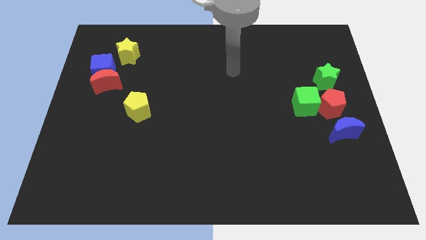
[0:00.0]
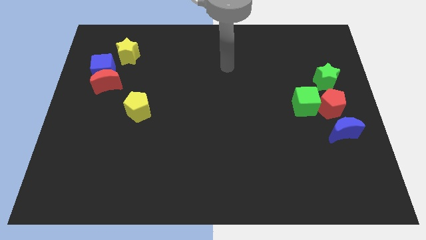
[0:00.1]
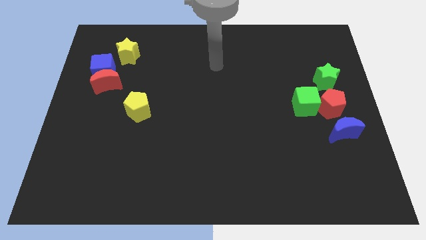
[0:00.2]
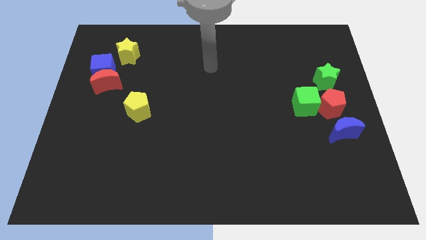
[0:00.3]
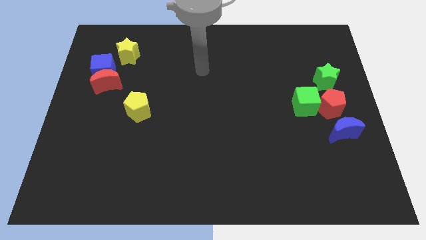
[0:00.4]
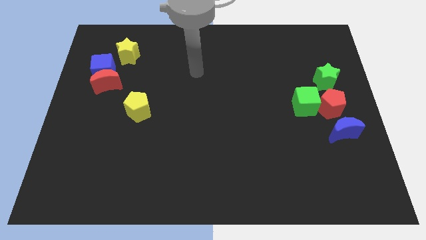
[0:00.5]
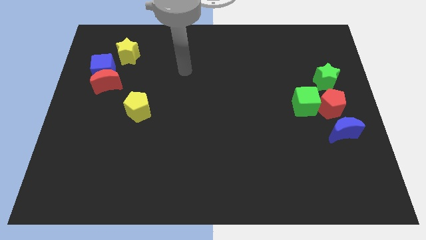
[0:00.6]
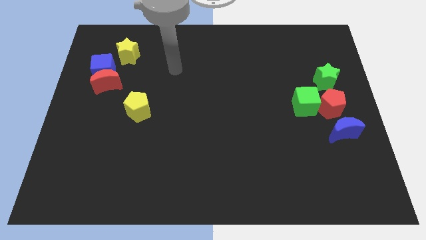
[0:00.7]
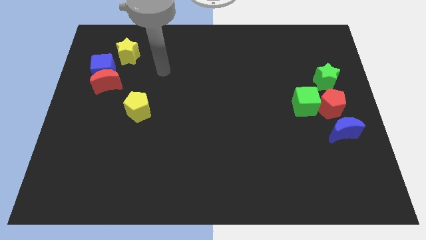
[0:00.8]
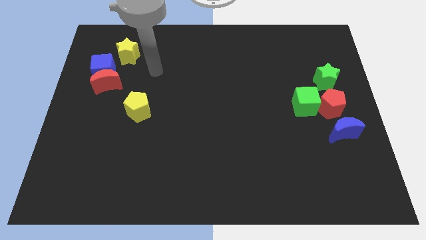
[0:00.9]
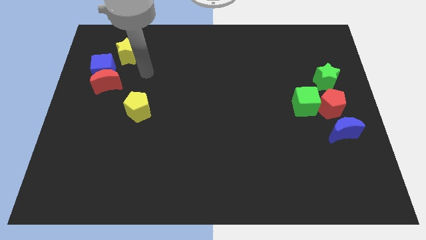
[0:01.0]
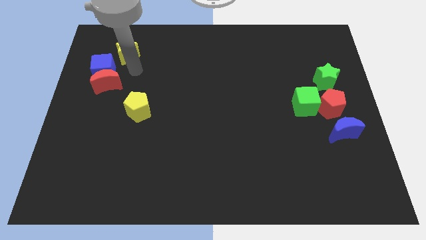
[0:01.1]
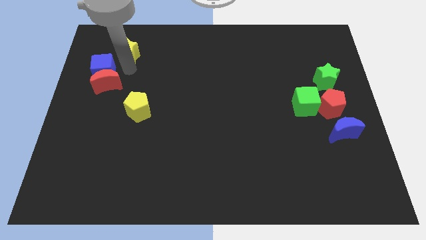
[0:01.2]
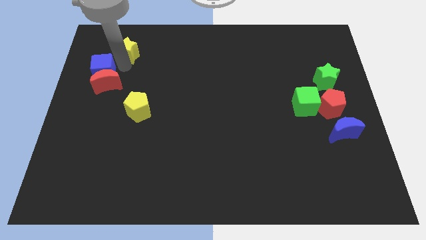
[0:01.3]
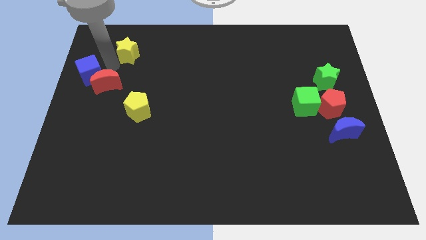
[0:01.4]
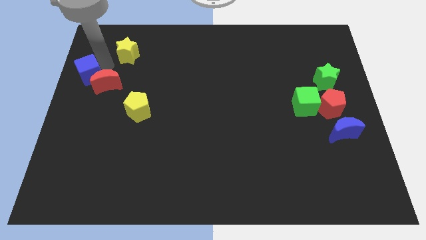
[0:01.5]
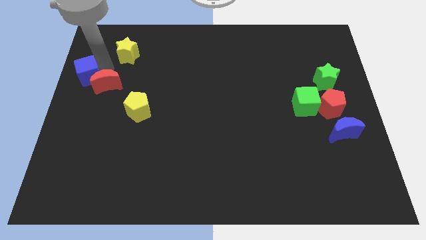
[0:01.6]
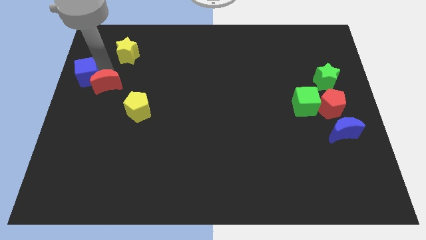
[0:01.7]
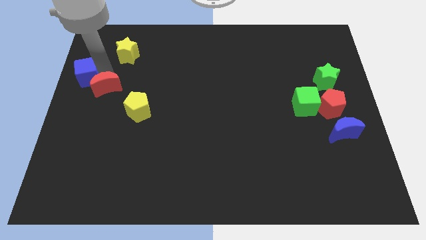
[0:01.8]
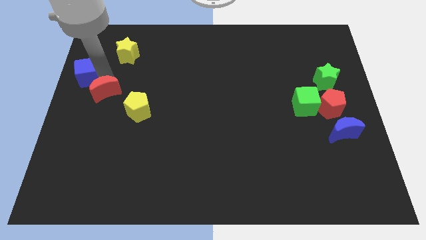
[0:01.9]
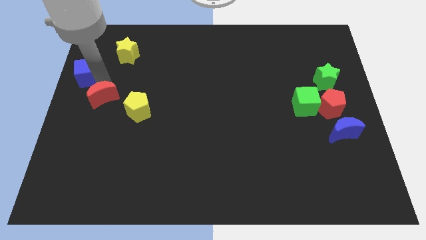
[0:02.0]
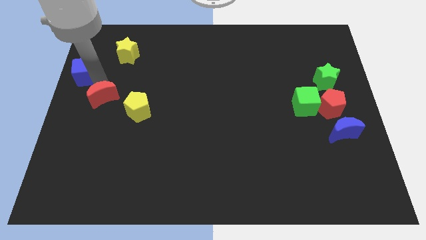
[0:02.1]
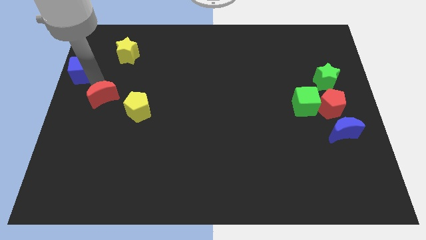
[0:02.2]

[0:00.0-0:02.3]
move the red moon away from the blue cube

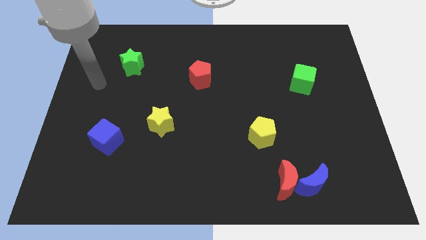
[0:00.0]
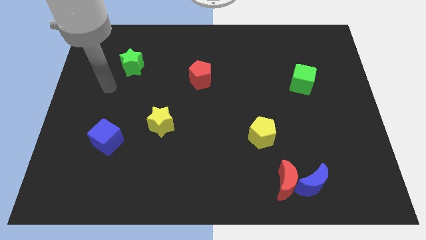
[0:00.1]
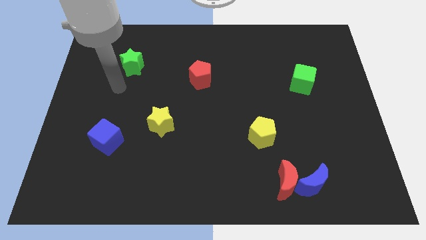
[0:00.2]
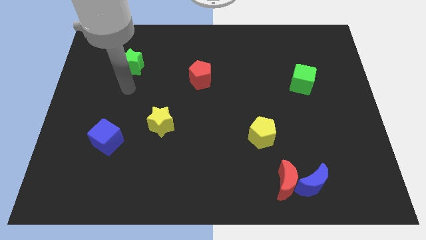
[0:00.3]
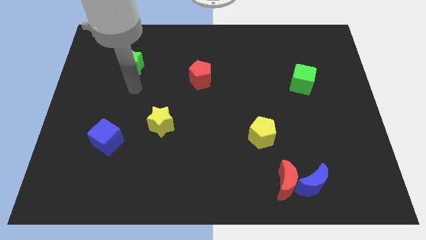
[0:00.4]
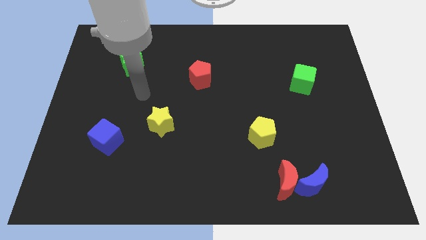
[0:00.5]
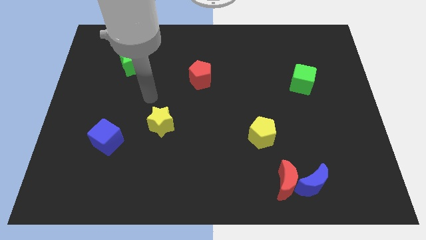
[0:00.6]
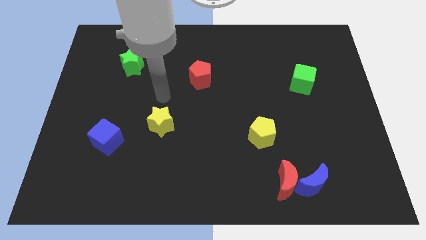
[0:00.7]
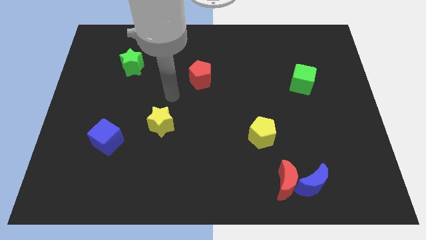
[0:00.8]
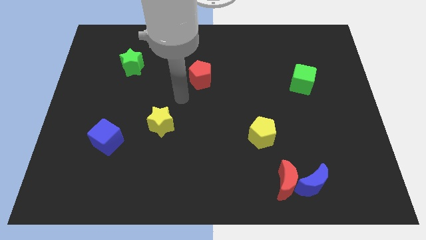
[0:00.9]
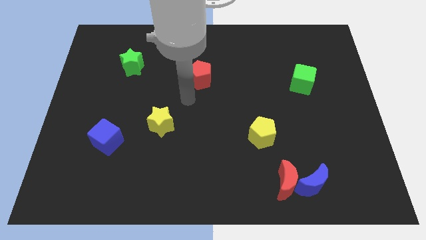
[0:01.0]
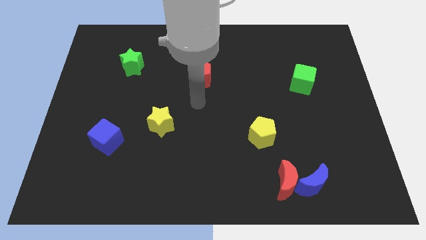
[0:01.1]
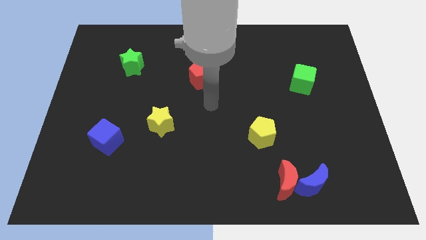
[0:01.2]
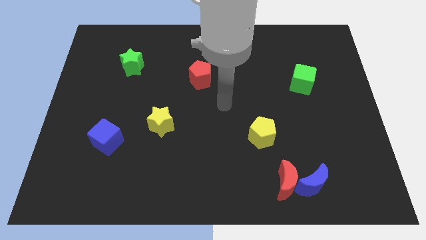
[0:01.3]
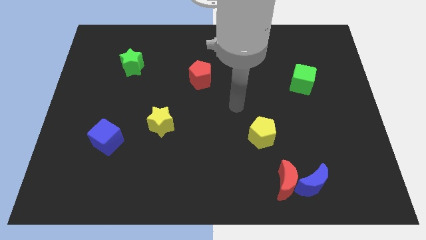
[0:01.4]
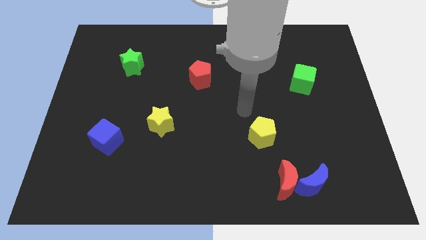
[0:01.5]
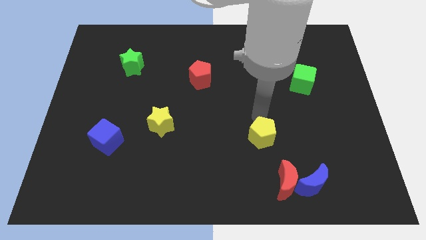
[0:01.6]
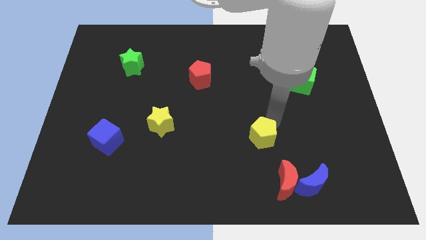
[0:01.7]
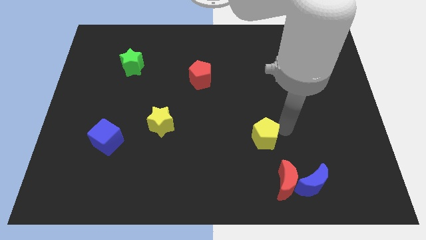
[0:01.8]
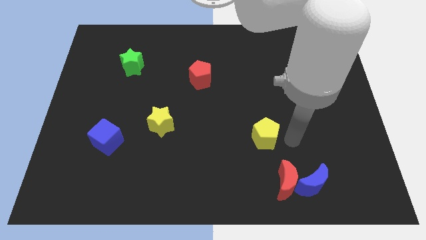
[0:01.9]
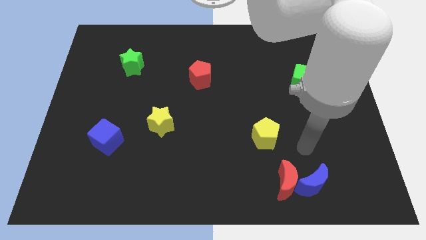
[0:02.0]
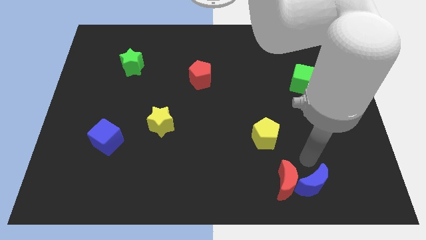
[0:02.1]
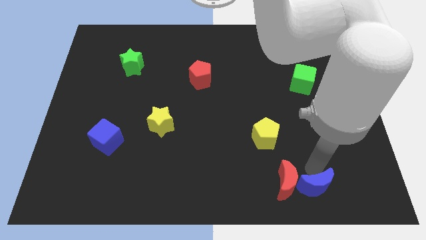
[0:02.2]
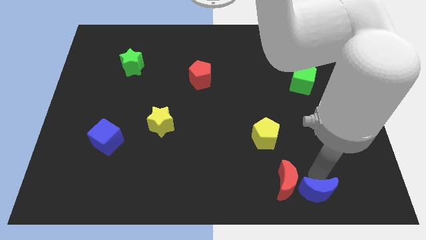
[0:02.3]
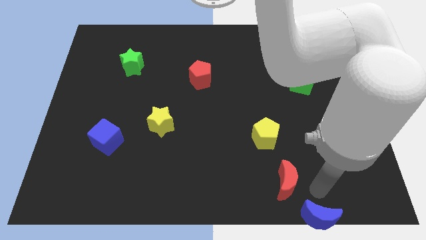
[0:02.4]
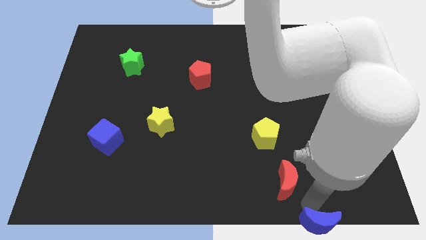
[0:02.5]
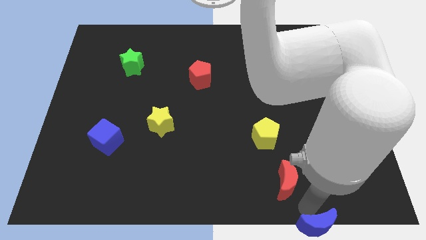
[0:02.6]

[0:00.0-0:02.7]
move the red moon away from the blue moon

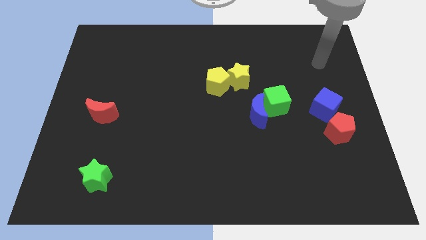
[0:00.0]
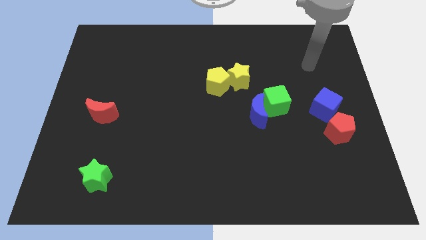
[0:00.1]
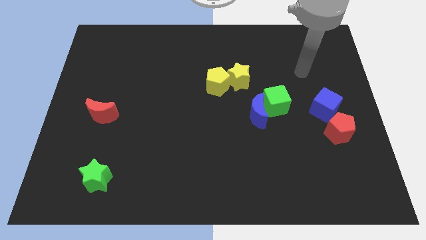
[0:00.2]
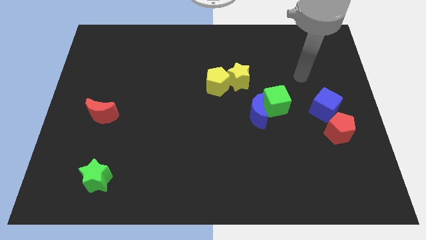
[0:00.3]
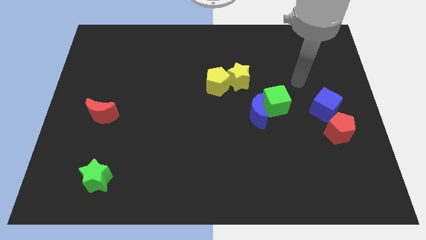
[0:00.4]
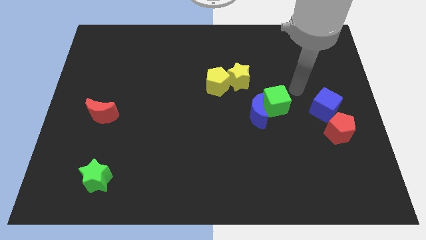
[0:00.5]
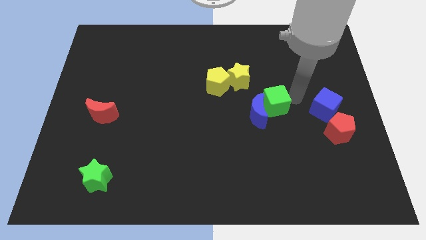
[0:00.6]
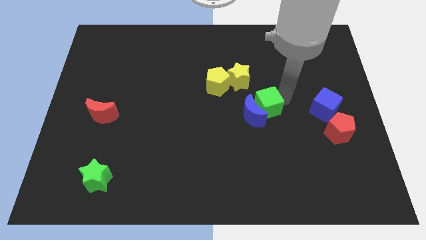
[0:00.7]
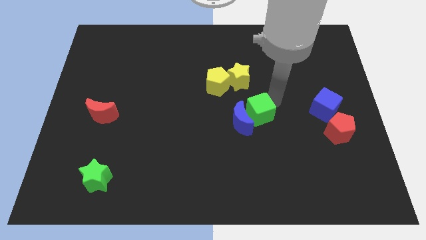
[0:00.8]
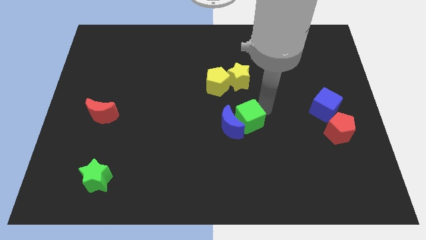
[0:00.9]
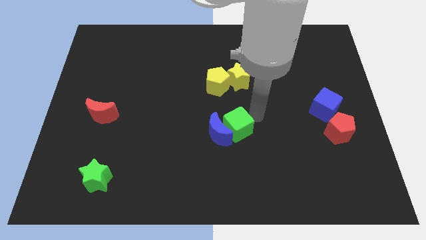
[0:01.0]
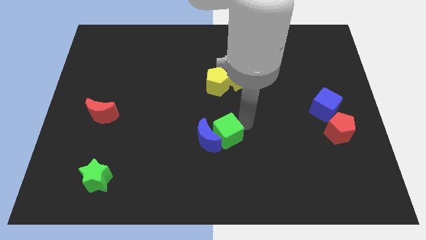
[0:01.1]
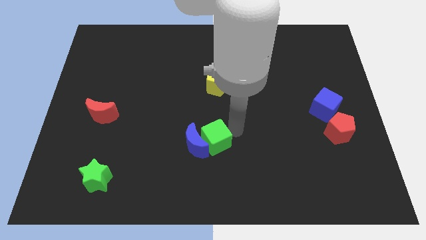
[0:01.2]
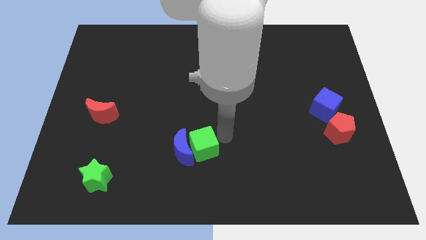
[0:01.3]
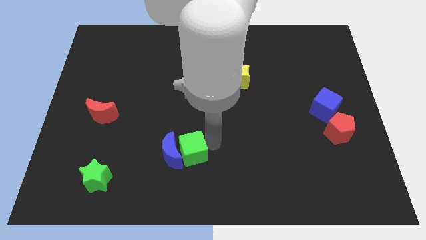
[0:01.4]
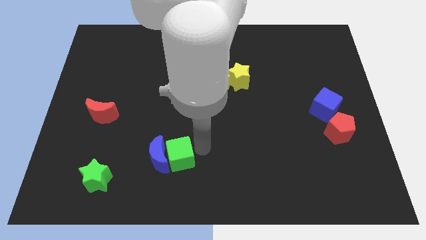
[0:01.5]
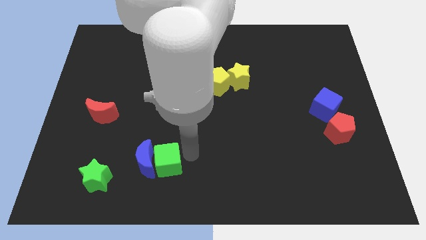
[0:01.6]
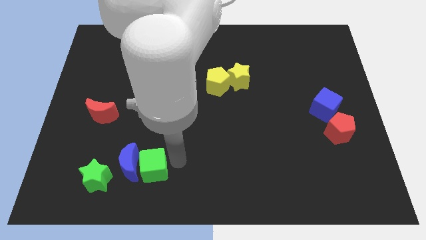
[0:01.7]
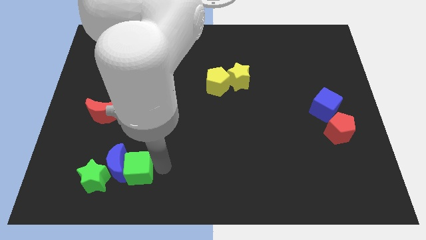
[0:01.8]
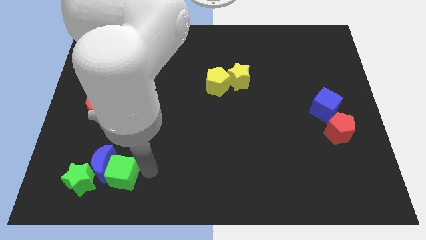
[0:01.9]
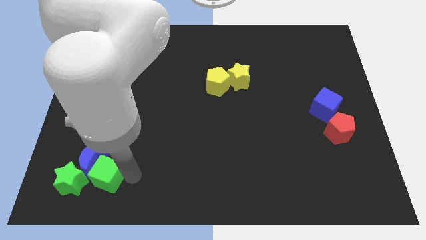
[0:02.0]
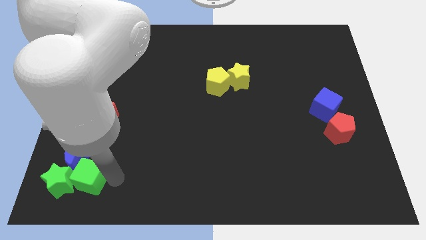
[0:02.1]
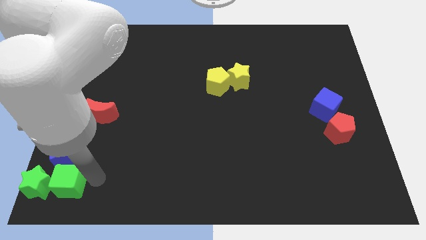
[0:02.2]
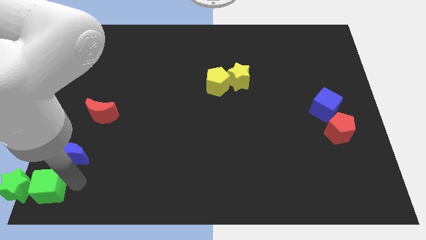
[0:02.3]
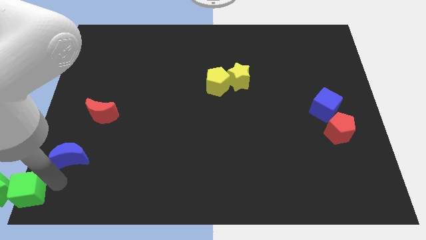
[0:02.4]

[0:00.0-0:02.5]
pull the blue moon apart from the green cube

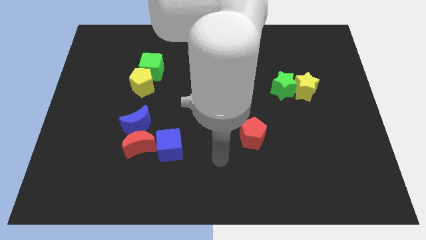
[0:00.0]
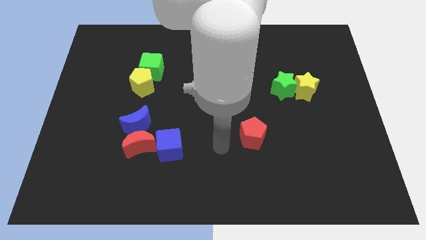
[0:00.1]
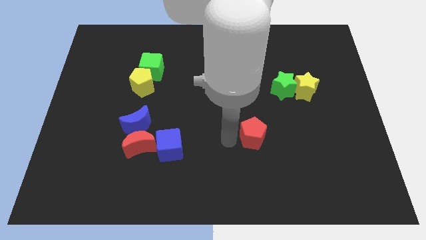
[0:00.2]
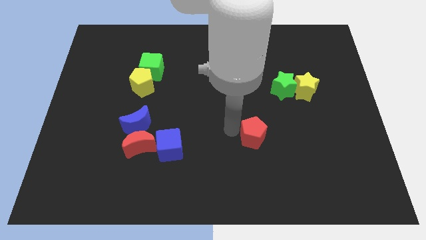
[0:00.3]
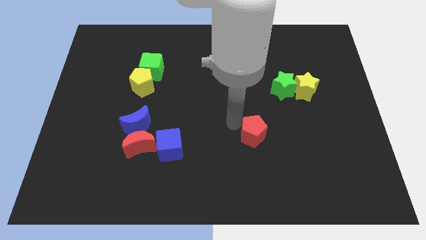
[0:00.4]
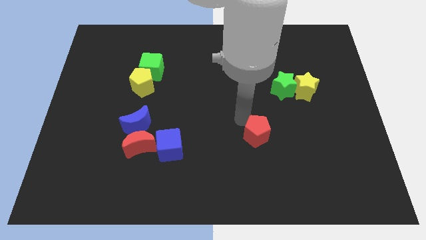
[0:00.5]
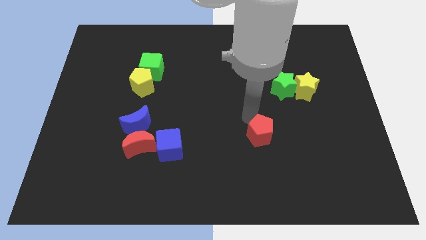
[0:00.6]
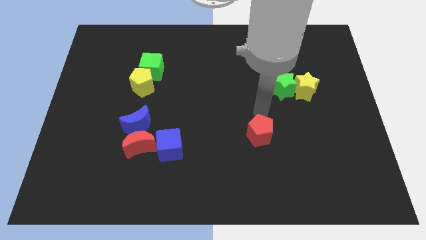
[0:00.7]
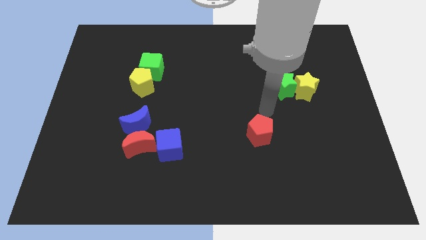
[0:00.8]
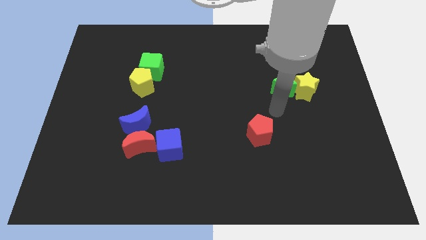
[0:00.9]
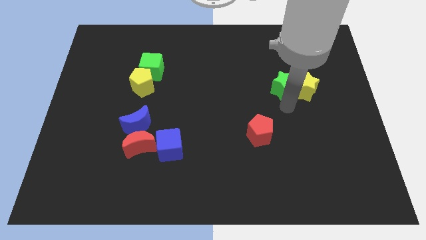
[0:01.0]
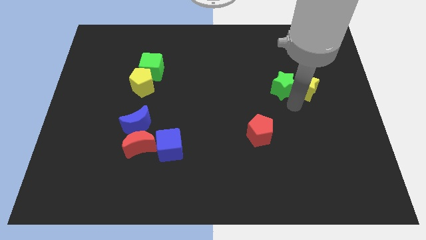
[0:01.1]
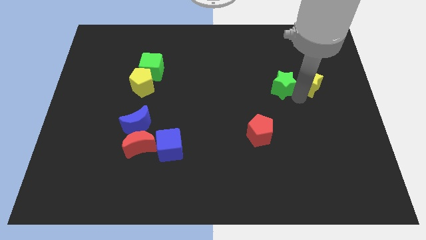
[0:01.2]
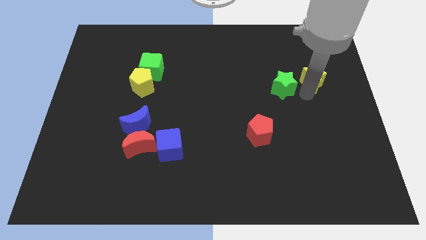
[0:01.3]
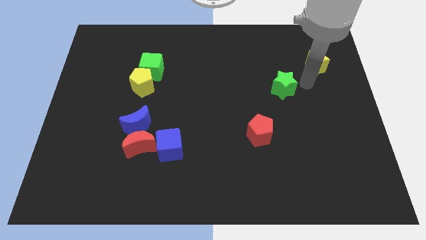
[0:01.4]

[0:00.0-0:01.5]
separate the green star from the yellow star

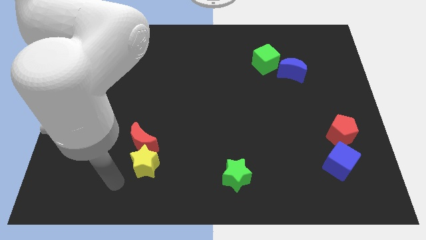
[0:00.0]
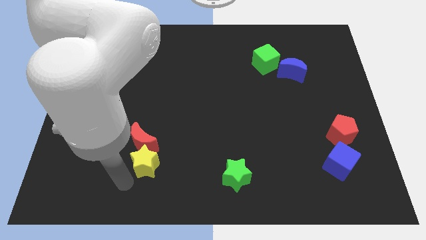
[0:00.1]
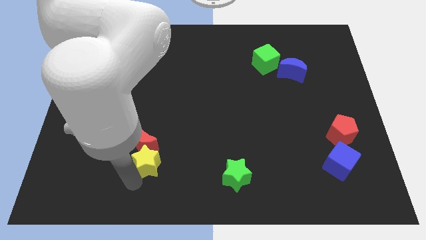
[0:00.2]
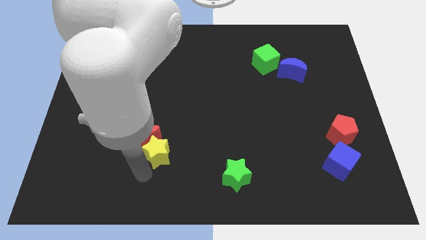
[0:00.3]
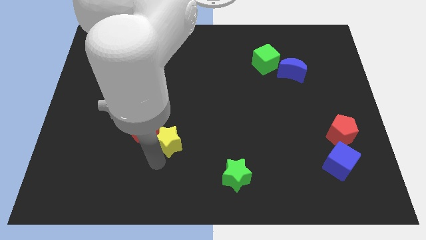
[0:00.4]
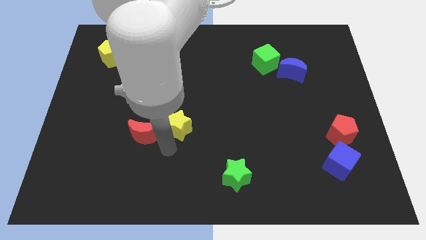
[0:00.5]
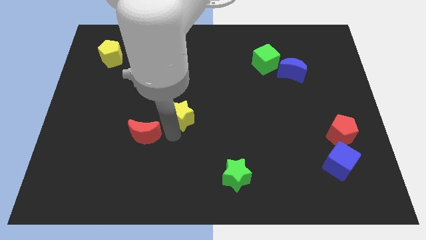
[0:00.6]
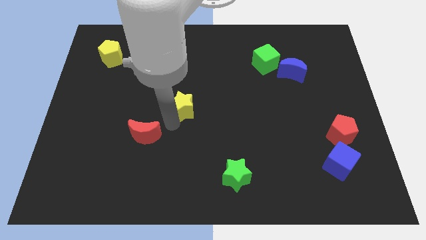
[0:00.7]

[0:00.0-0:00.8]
pull the red moon apart from the yellow star
